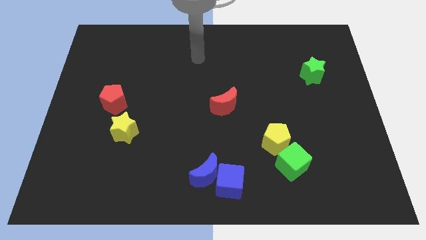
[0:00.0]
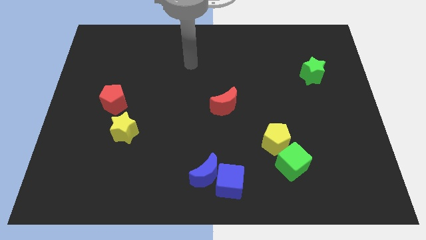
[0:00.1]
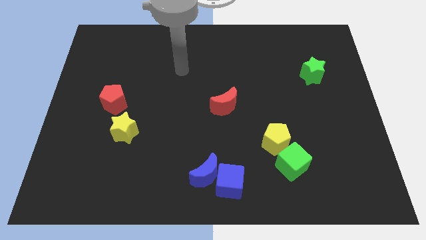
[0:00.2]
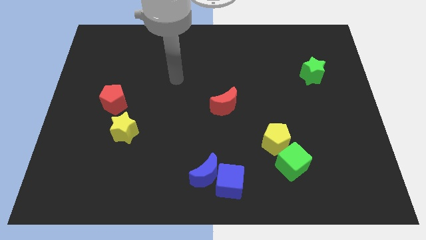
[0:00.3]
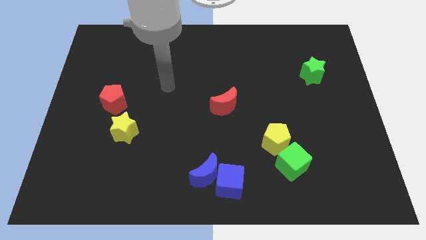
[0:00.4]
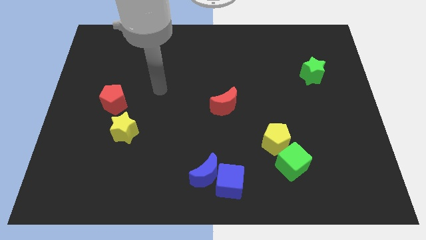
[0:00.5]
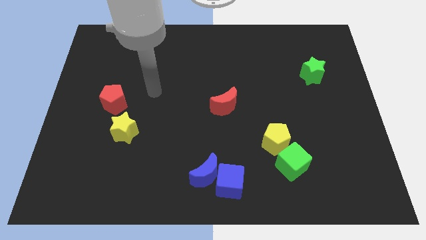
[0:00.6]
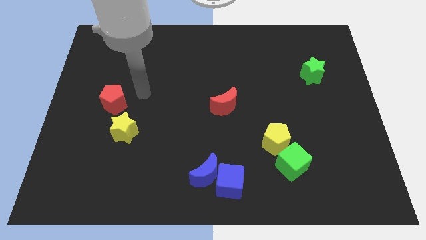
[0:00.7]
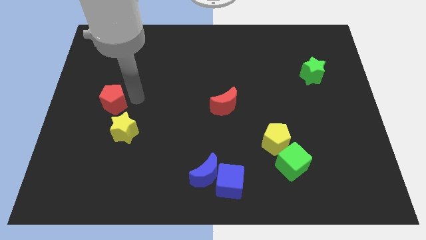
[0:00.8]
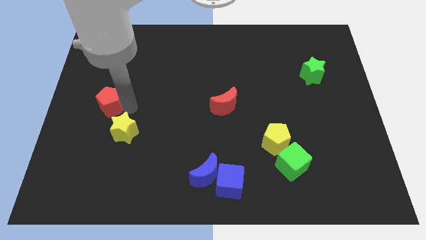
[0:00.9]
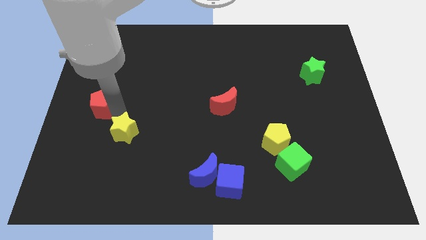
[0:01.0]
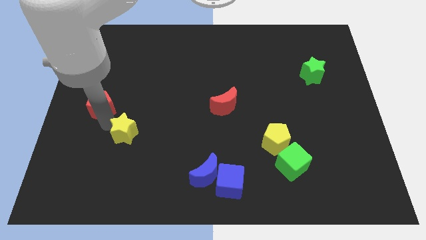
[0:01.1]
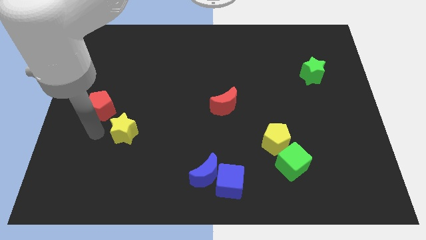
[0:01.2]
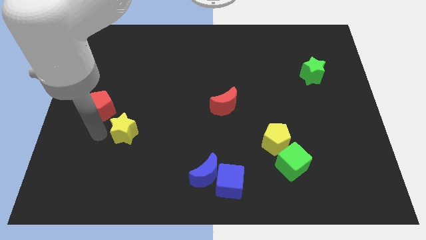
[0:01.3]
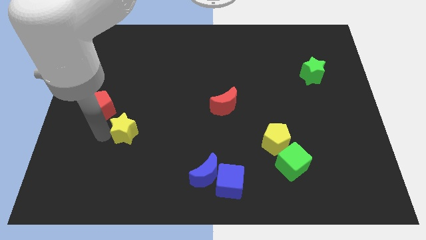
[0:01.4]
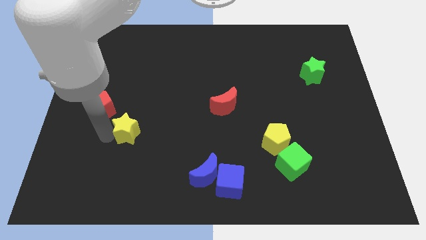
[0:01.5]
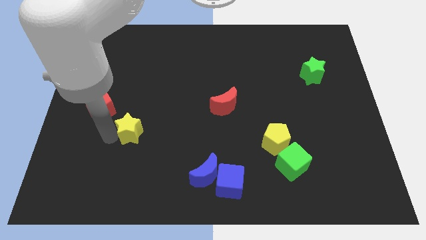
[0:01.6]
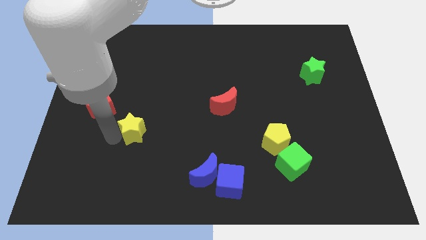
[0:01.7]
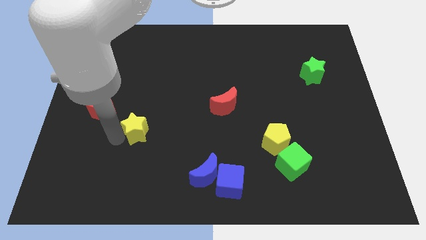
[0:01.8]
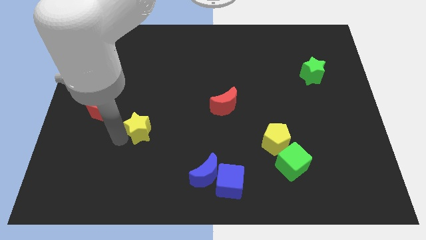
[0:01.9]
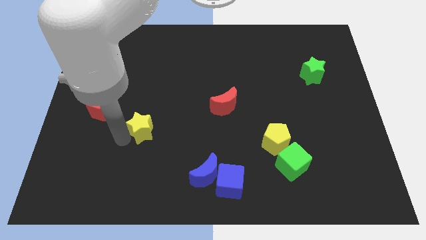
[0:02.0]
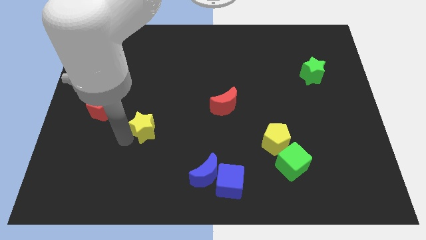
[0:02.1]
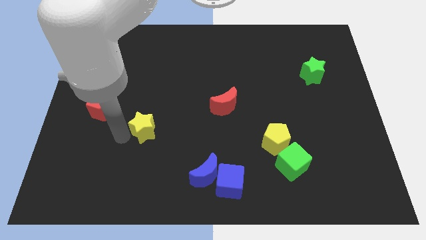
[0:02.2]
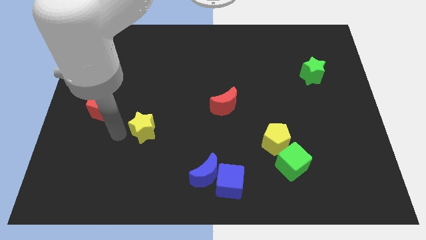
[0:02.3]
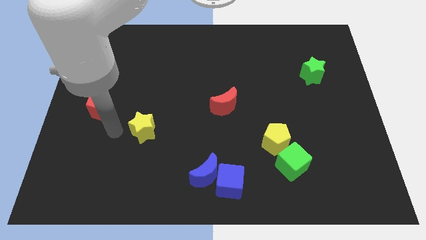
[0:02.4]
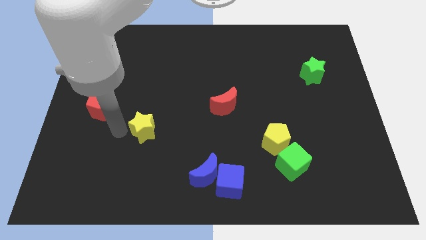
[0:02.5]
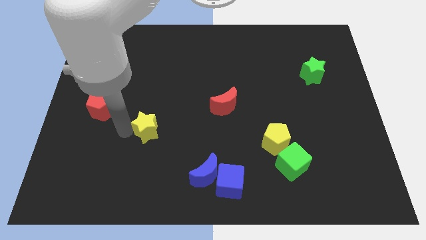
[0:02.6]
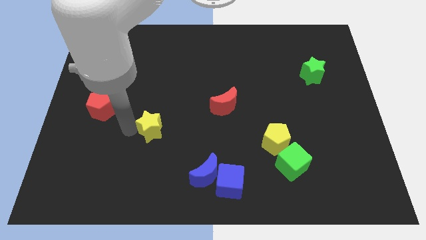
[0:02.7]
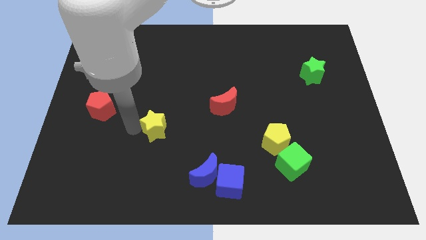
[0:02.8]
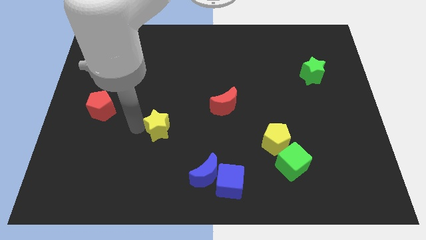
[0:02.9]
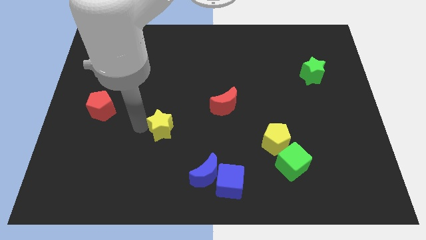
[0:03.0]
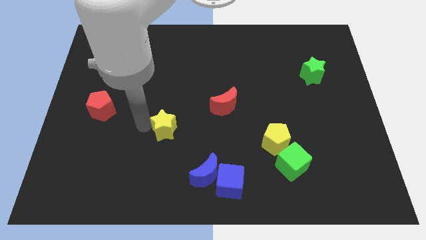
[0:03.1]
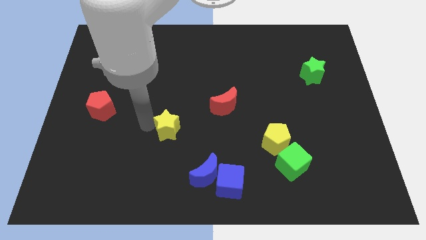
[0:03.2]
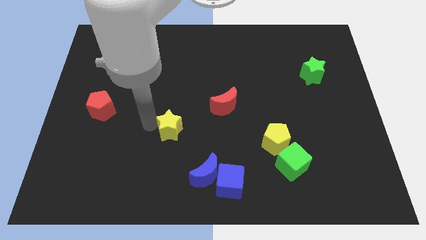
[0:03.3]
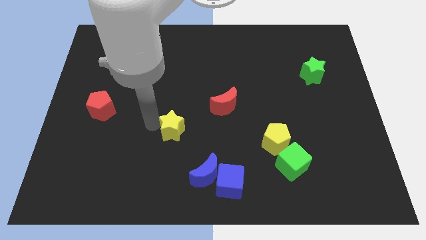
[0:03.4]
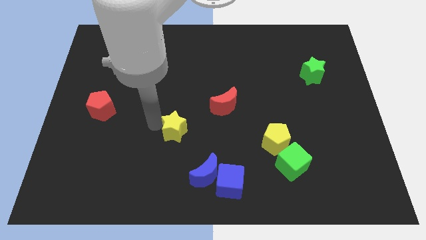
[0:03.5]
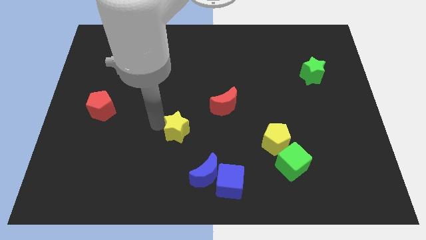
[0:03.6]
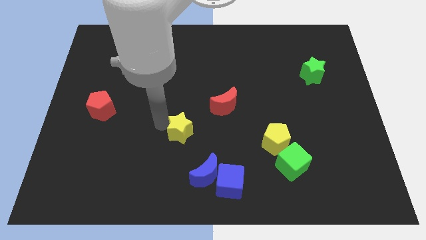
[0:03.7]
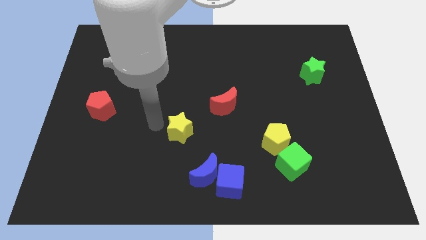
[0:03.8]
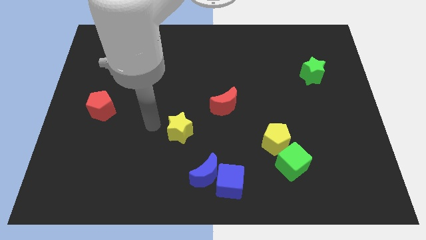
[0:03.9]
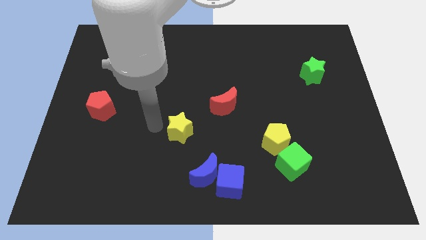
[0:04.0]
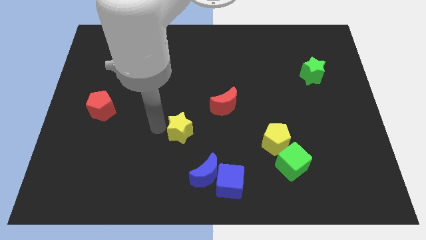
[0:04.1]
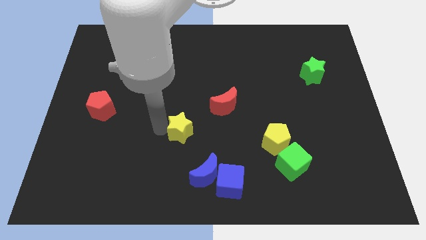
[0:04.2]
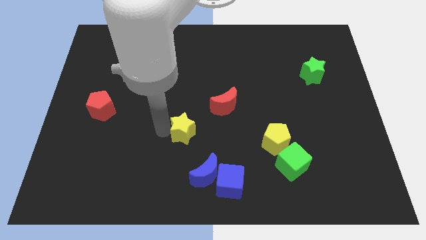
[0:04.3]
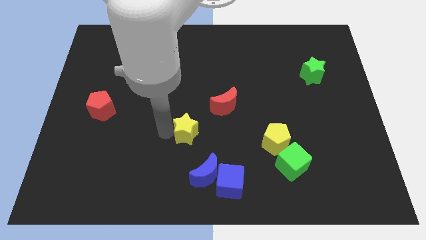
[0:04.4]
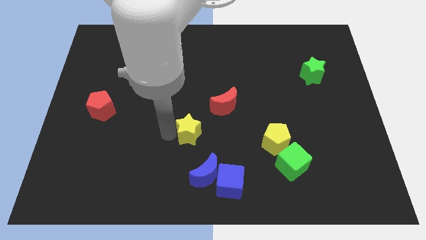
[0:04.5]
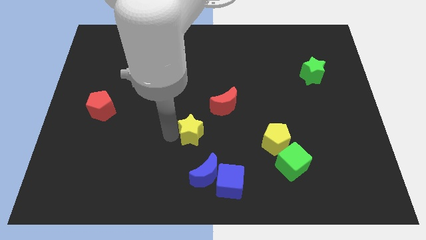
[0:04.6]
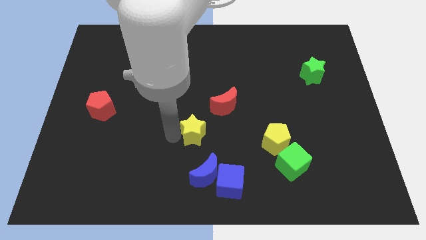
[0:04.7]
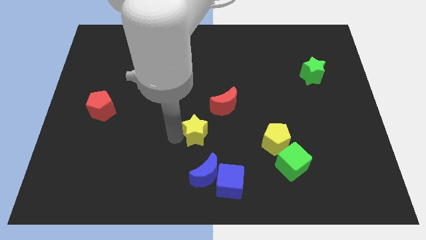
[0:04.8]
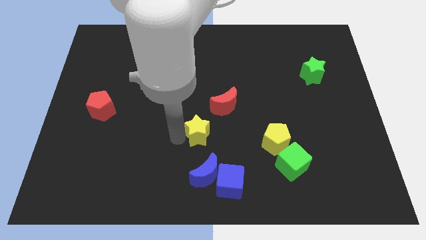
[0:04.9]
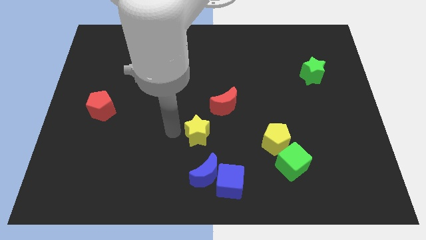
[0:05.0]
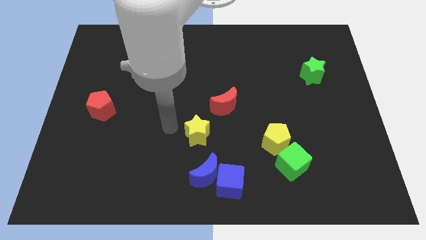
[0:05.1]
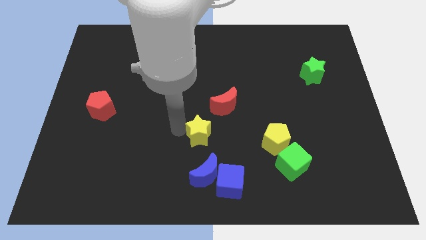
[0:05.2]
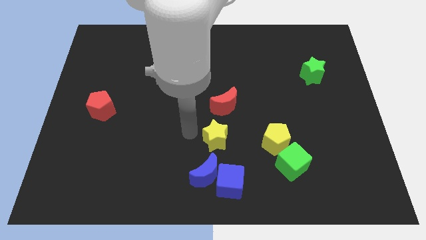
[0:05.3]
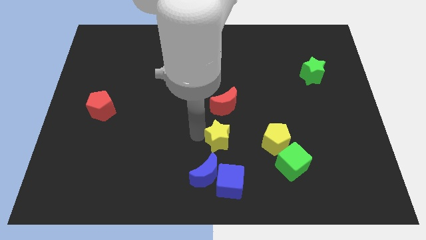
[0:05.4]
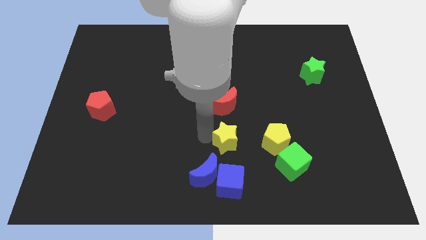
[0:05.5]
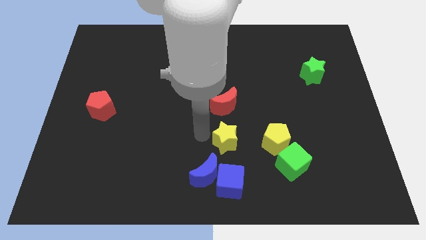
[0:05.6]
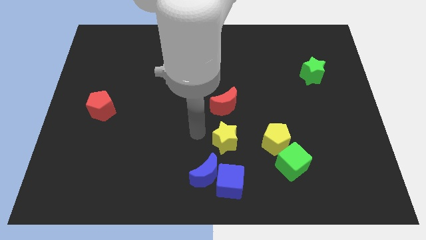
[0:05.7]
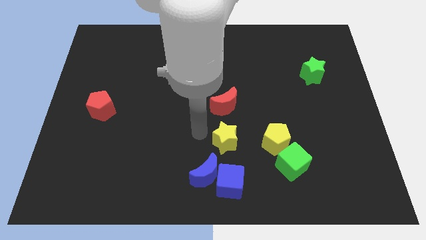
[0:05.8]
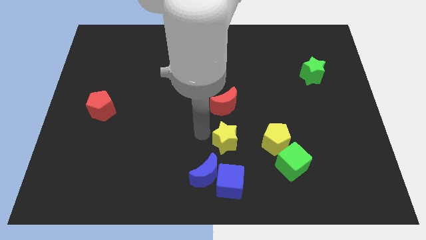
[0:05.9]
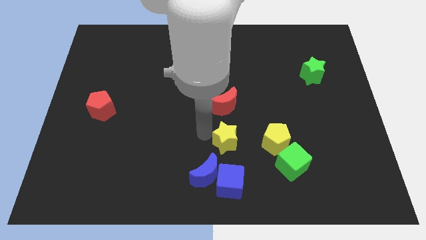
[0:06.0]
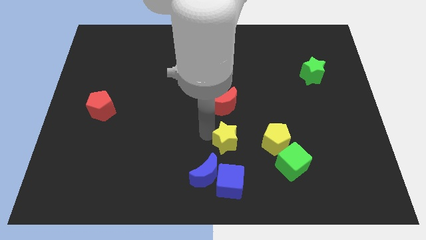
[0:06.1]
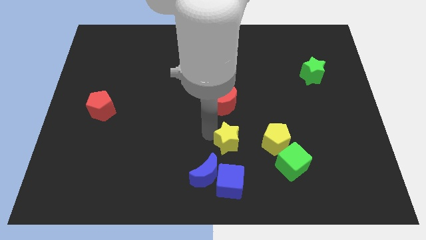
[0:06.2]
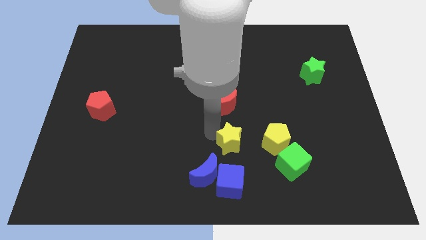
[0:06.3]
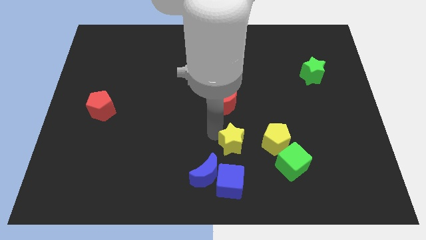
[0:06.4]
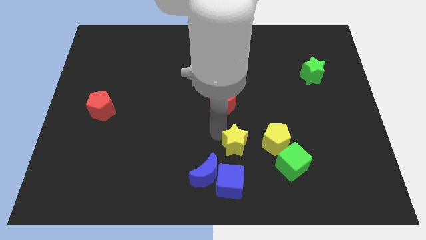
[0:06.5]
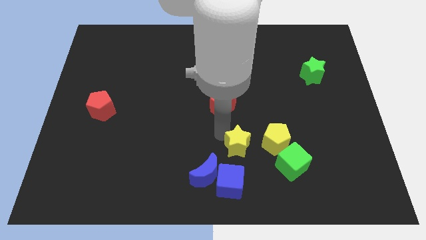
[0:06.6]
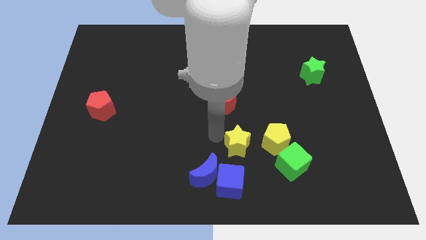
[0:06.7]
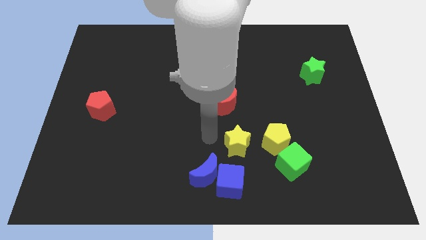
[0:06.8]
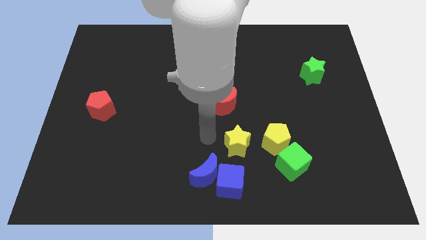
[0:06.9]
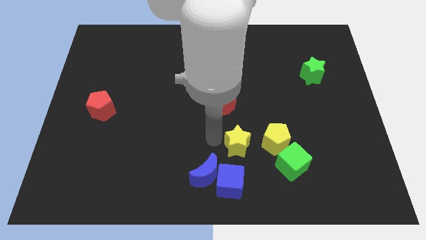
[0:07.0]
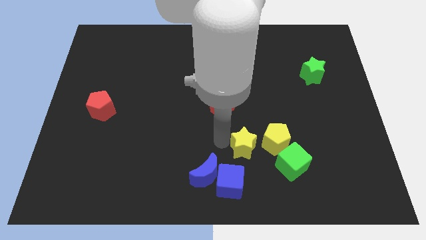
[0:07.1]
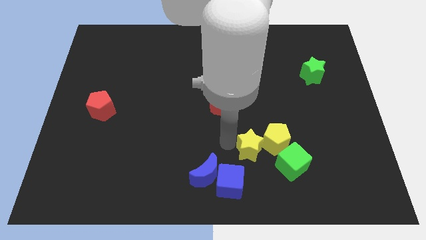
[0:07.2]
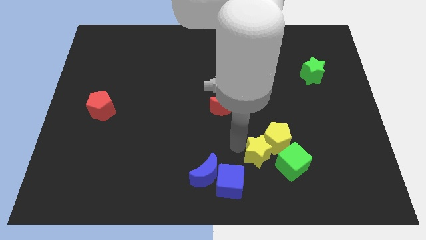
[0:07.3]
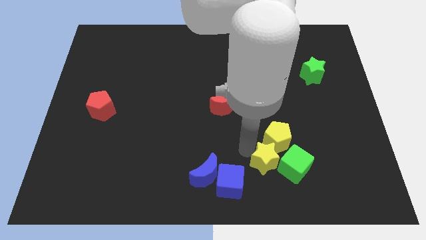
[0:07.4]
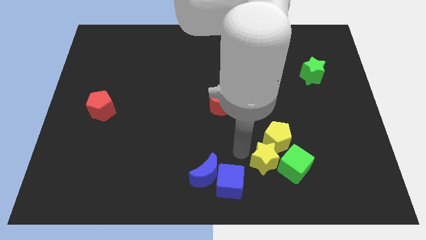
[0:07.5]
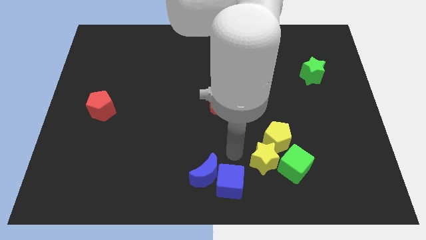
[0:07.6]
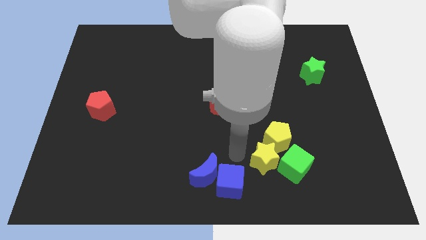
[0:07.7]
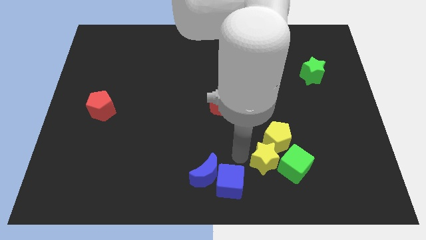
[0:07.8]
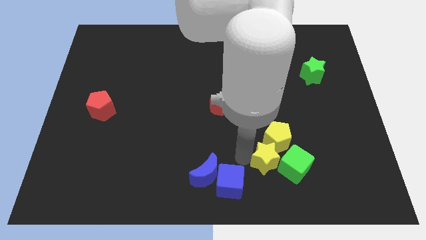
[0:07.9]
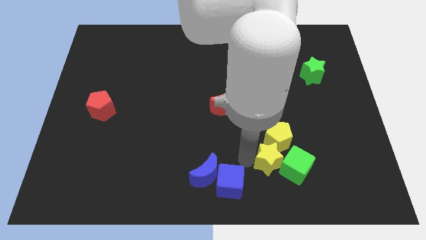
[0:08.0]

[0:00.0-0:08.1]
move the yellow star to the green cube
